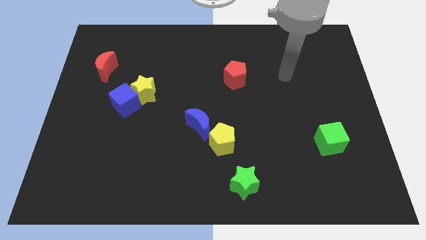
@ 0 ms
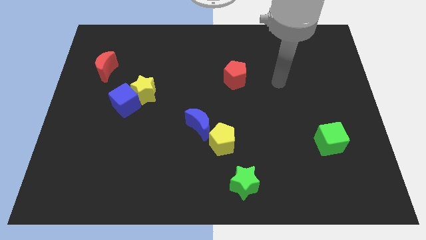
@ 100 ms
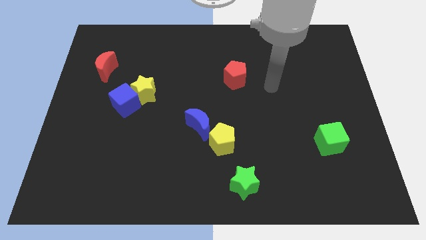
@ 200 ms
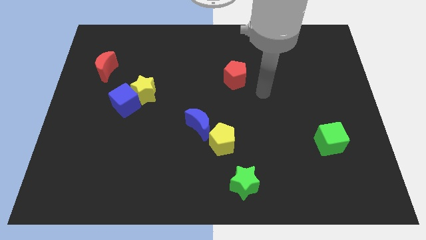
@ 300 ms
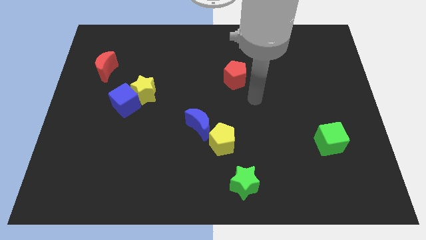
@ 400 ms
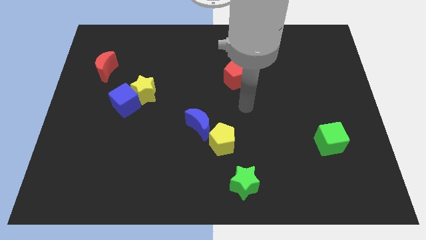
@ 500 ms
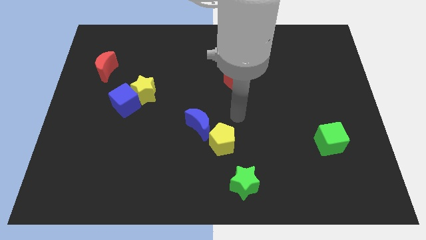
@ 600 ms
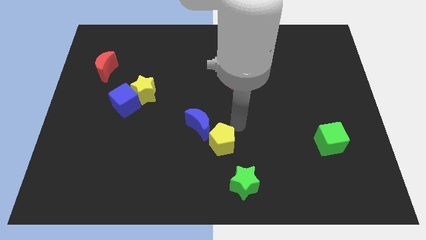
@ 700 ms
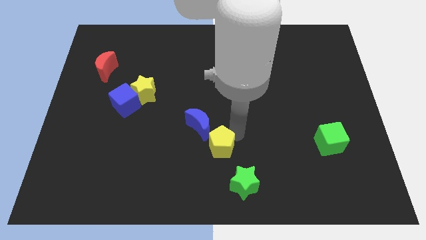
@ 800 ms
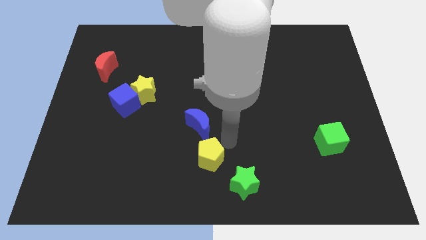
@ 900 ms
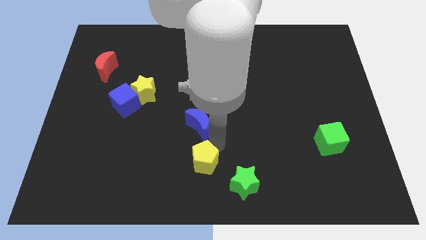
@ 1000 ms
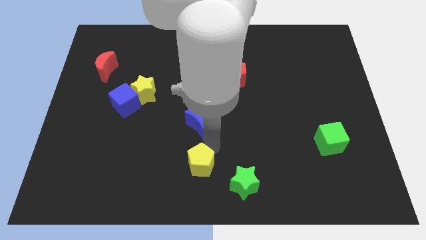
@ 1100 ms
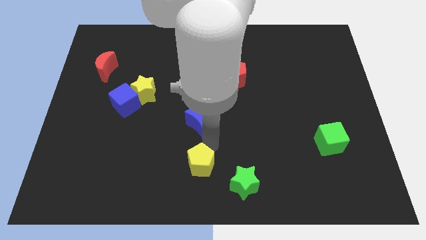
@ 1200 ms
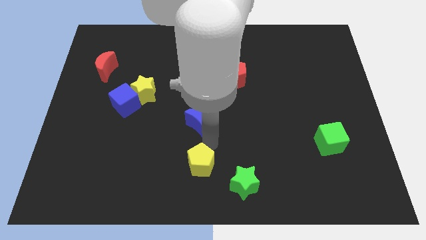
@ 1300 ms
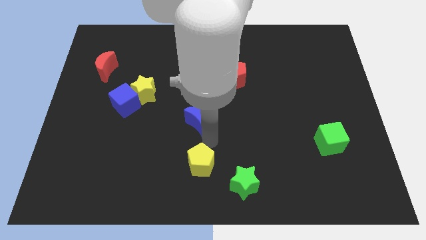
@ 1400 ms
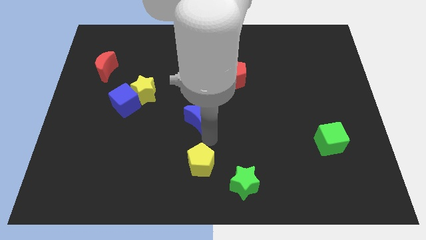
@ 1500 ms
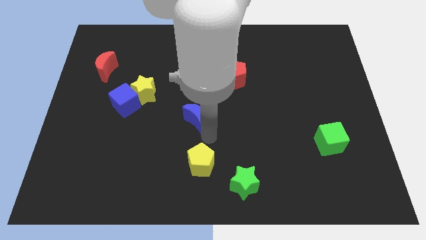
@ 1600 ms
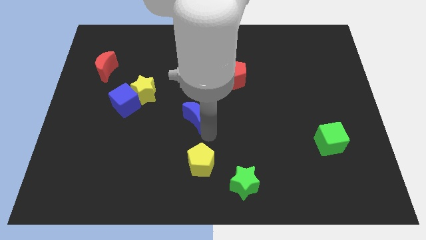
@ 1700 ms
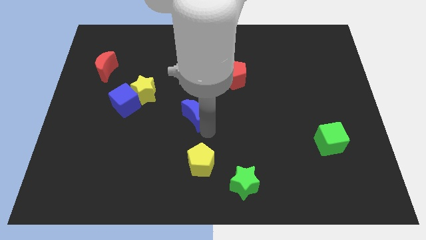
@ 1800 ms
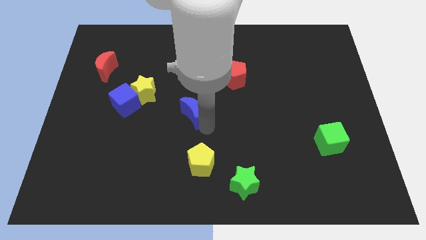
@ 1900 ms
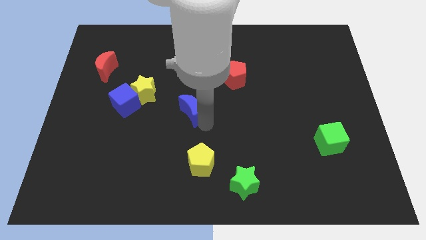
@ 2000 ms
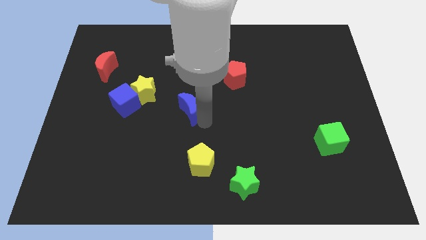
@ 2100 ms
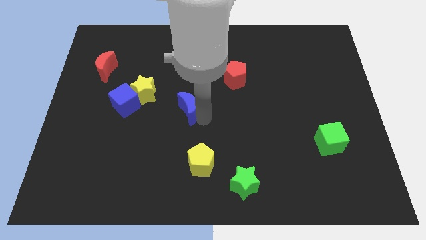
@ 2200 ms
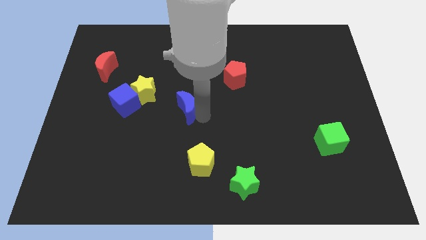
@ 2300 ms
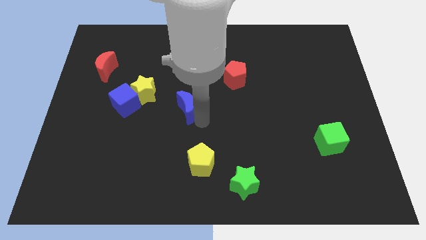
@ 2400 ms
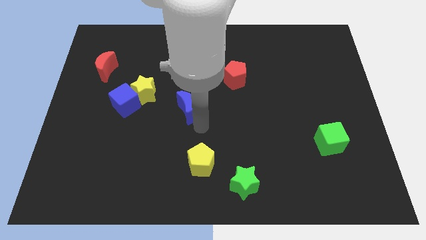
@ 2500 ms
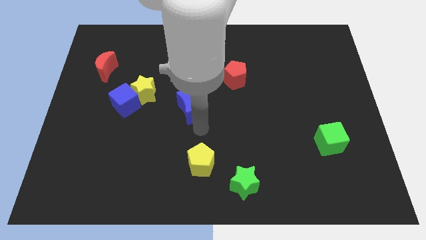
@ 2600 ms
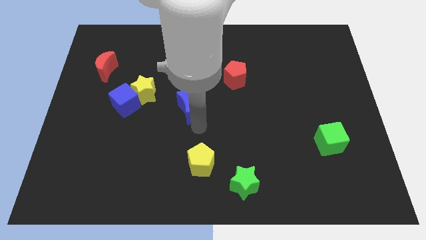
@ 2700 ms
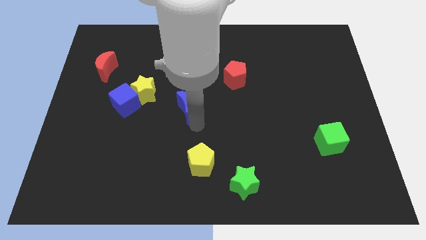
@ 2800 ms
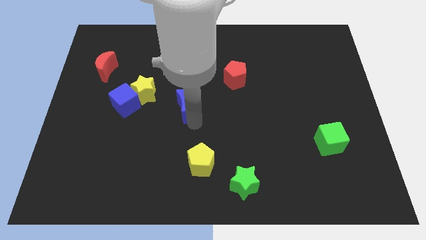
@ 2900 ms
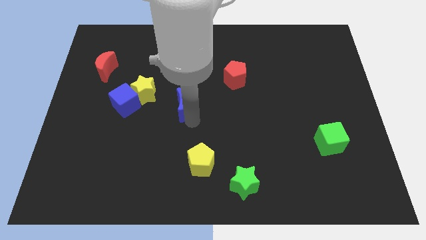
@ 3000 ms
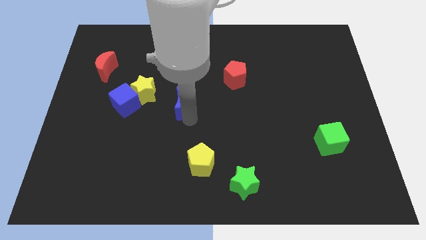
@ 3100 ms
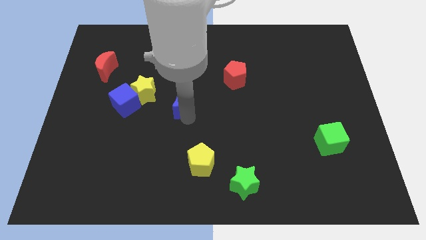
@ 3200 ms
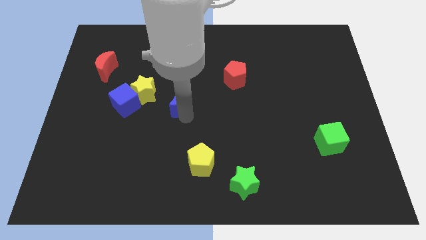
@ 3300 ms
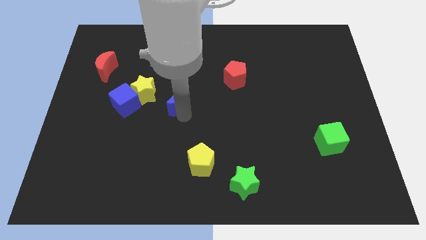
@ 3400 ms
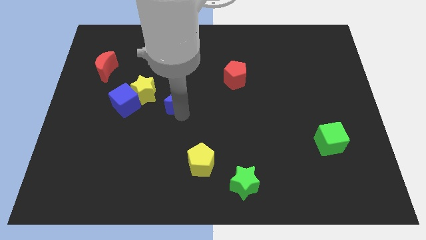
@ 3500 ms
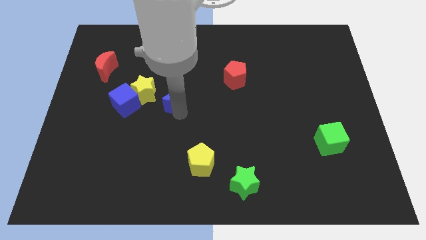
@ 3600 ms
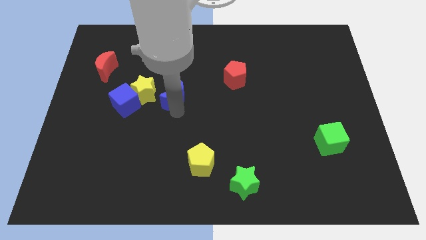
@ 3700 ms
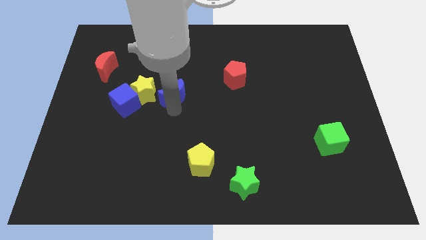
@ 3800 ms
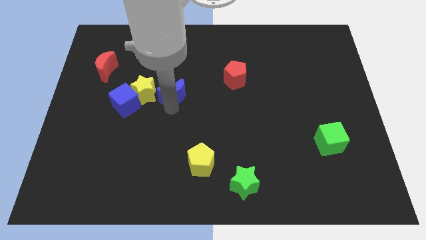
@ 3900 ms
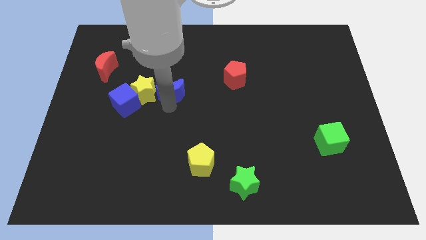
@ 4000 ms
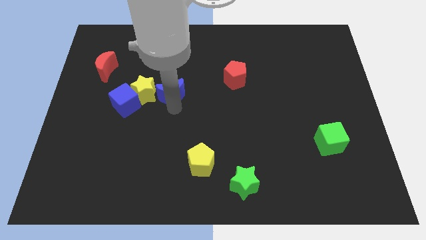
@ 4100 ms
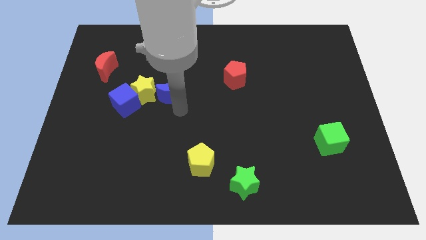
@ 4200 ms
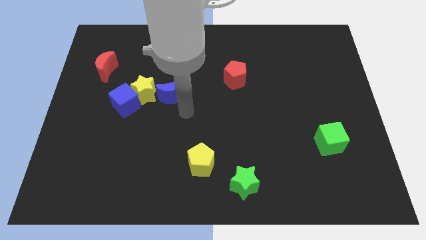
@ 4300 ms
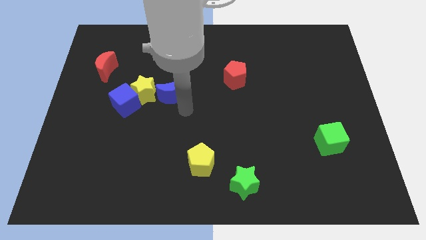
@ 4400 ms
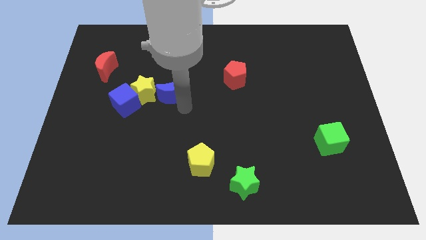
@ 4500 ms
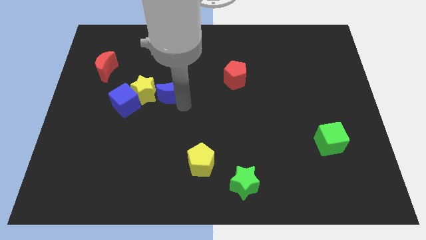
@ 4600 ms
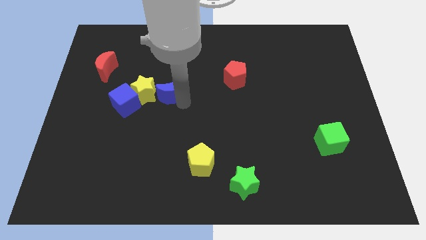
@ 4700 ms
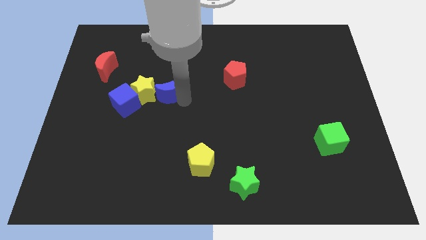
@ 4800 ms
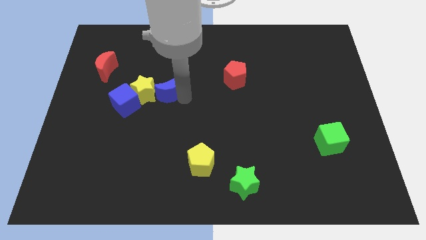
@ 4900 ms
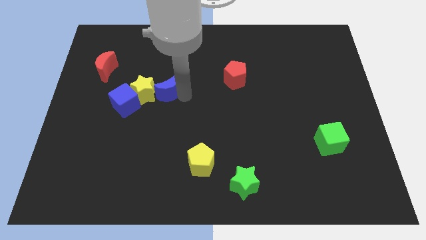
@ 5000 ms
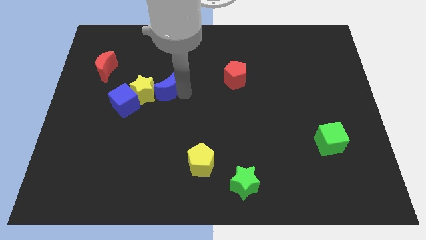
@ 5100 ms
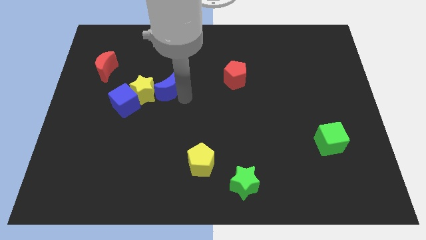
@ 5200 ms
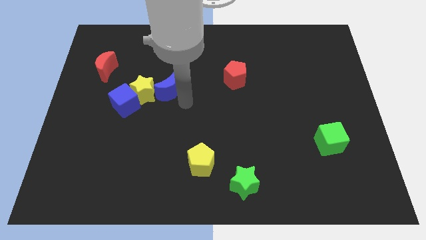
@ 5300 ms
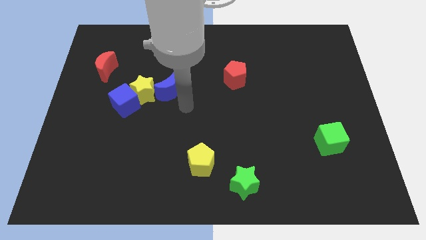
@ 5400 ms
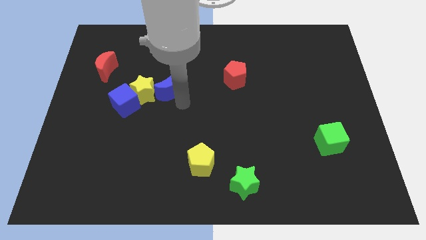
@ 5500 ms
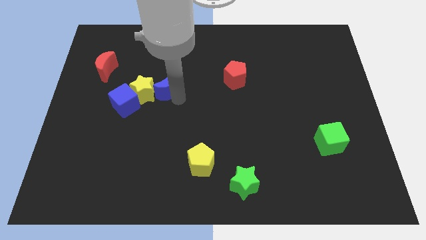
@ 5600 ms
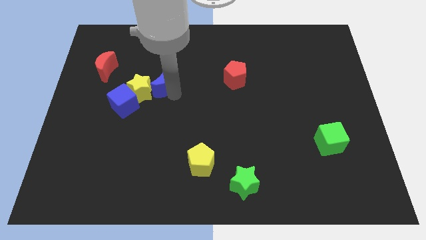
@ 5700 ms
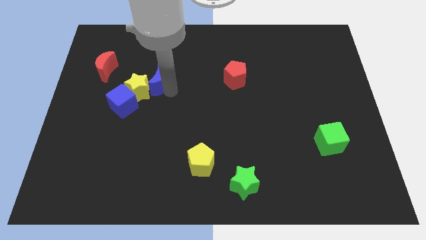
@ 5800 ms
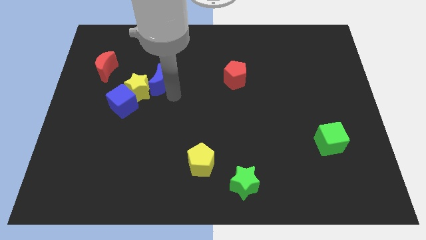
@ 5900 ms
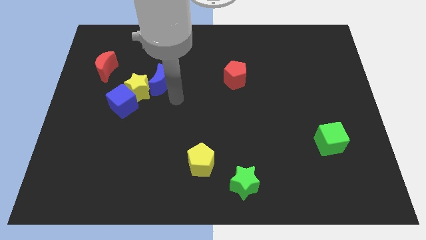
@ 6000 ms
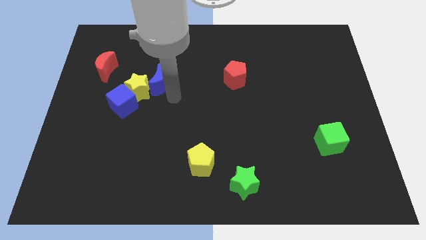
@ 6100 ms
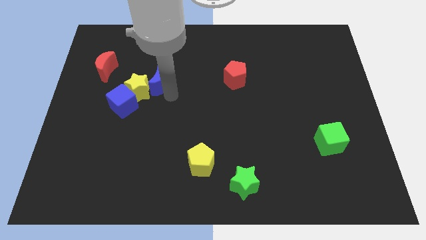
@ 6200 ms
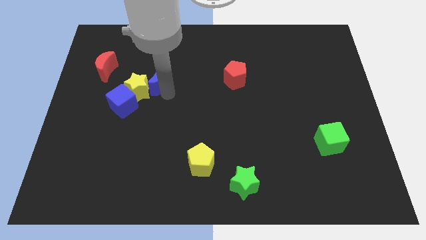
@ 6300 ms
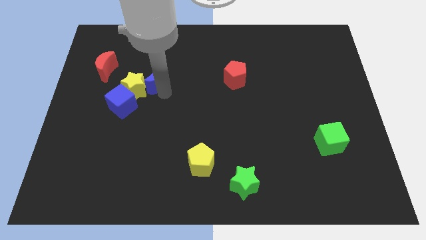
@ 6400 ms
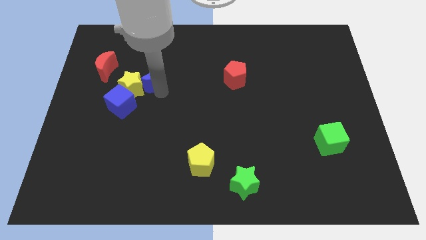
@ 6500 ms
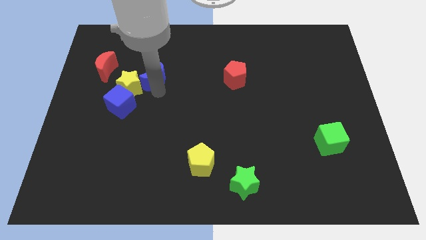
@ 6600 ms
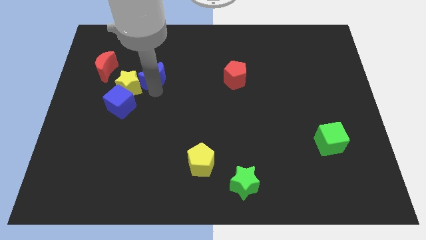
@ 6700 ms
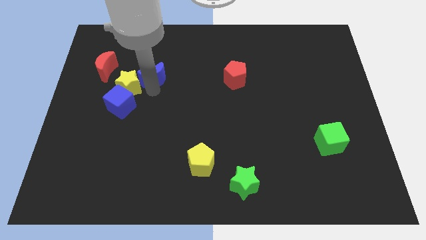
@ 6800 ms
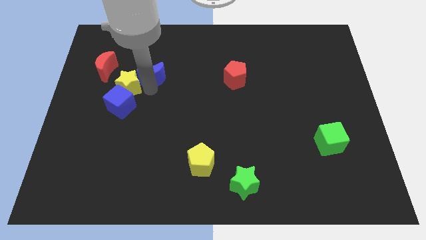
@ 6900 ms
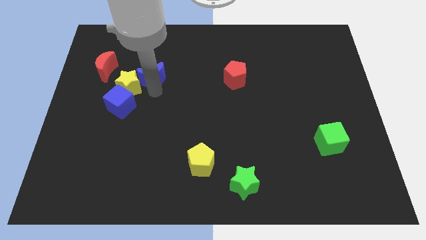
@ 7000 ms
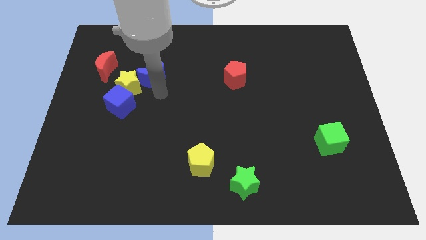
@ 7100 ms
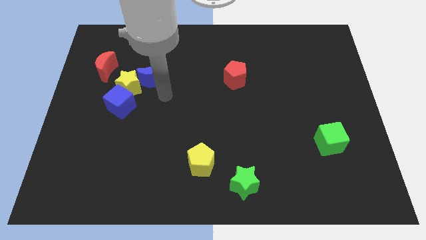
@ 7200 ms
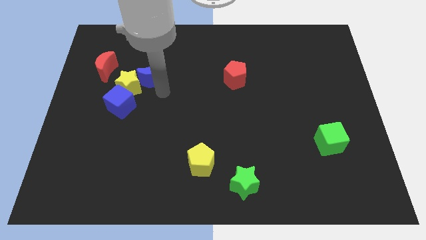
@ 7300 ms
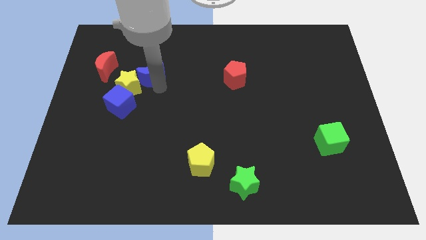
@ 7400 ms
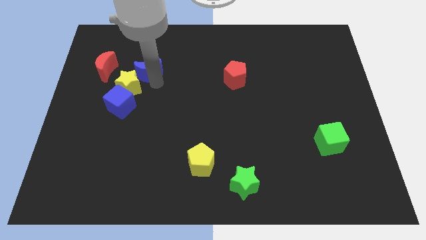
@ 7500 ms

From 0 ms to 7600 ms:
push the blue moon up and to the left
